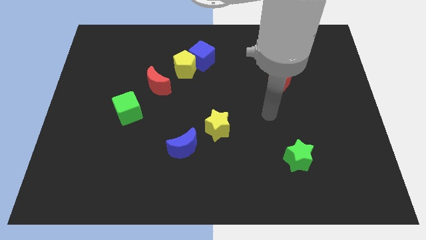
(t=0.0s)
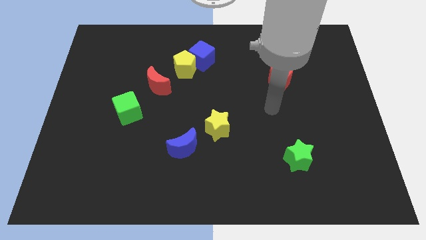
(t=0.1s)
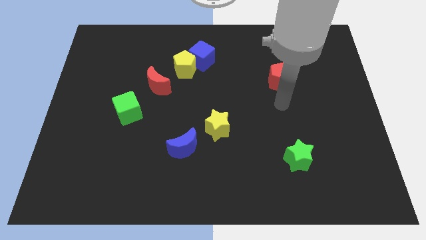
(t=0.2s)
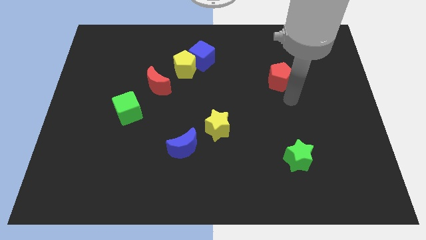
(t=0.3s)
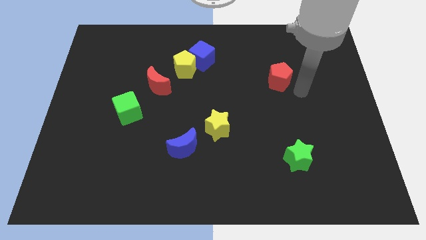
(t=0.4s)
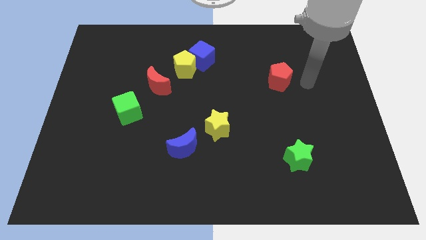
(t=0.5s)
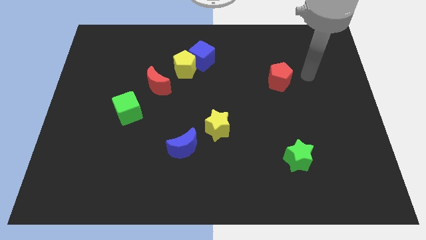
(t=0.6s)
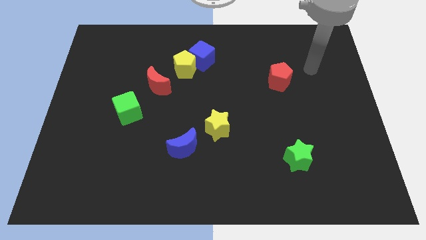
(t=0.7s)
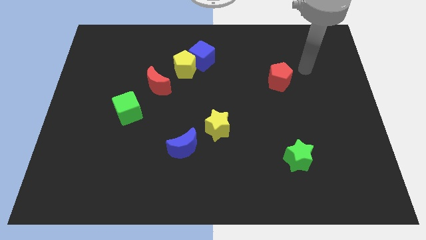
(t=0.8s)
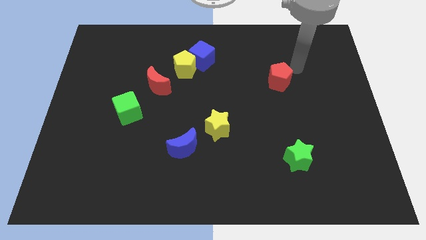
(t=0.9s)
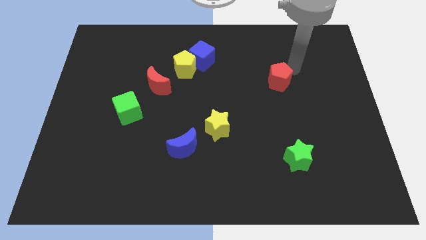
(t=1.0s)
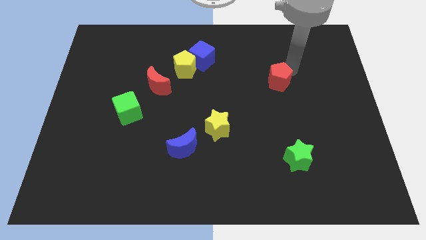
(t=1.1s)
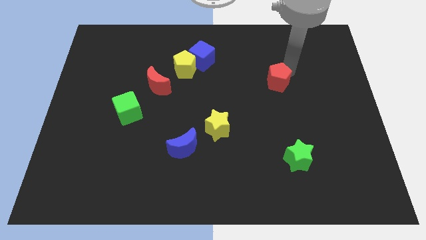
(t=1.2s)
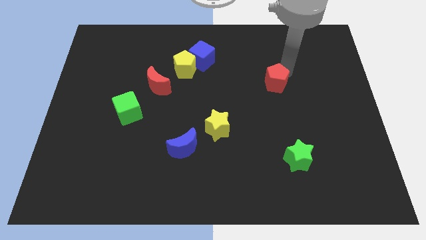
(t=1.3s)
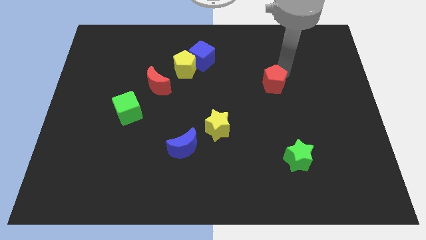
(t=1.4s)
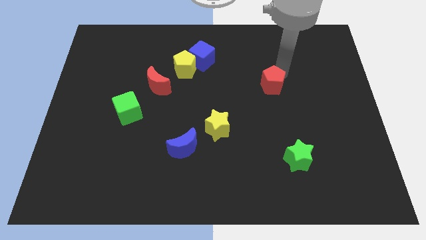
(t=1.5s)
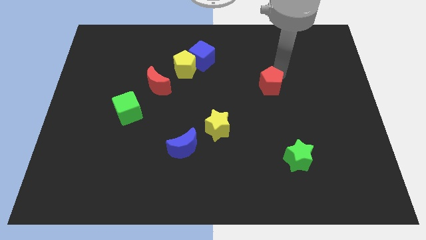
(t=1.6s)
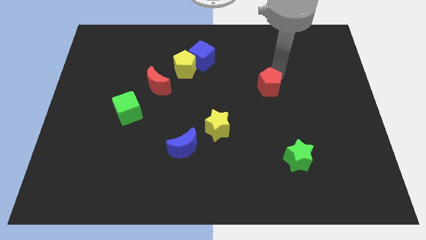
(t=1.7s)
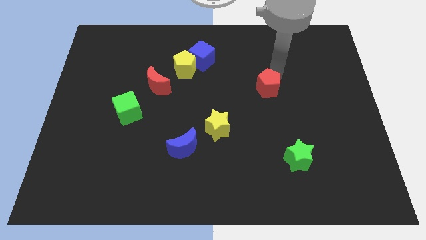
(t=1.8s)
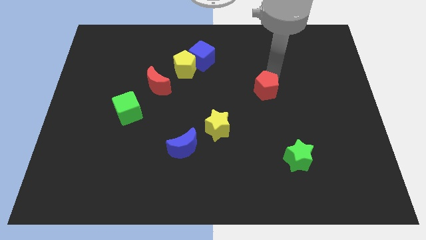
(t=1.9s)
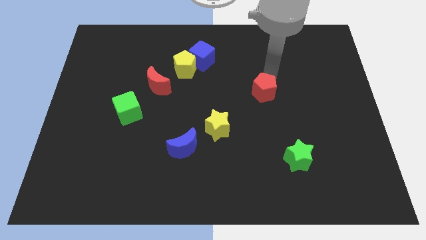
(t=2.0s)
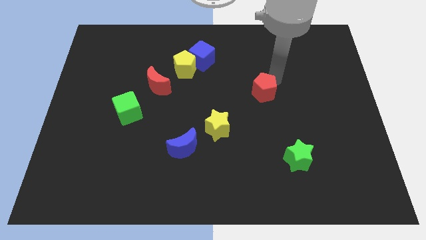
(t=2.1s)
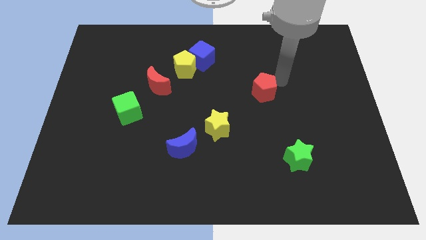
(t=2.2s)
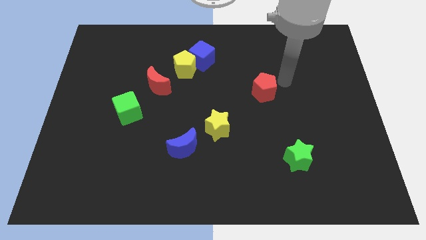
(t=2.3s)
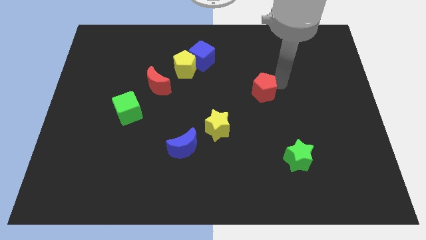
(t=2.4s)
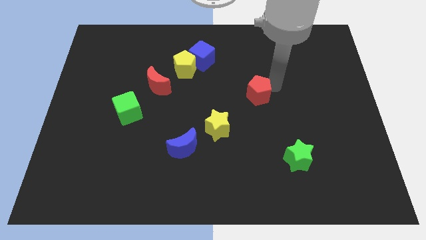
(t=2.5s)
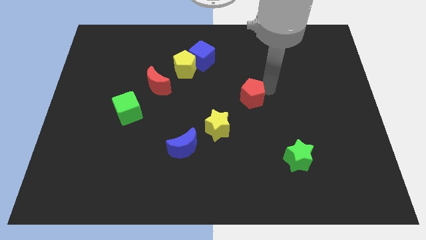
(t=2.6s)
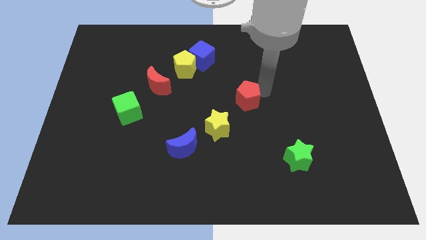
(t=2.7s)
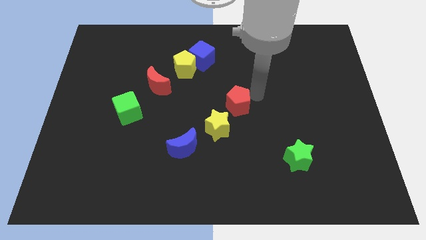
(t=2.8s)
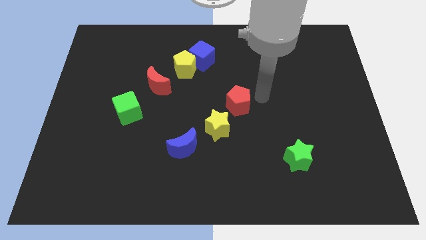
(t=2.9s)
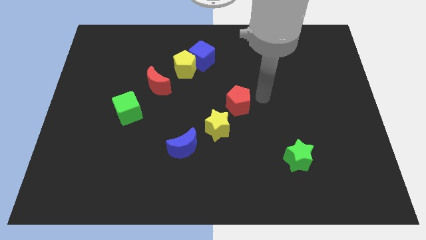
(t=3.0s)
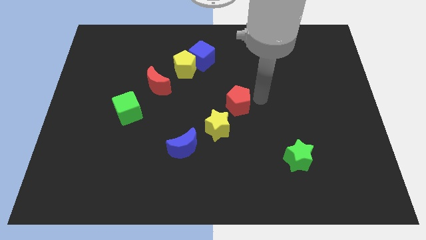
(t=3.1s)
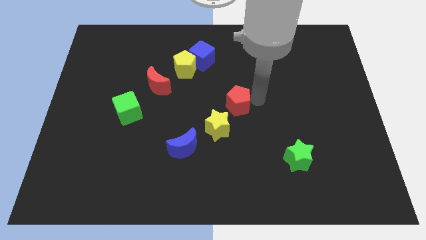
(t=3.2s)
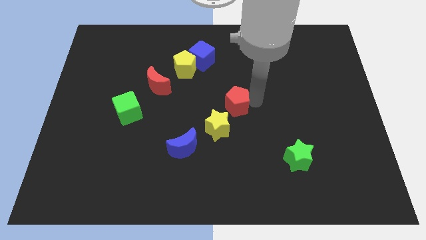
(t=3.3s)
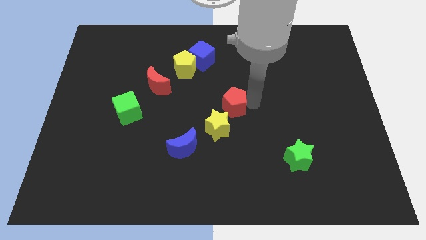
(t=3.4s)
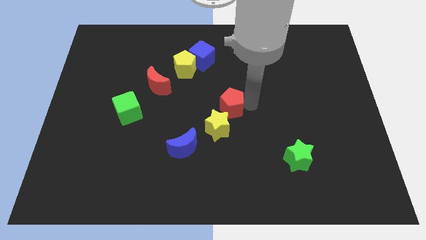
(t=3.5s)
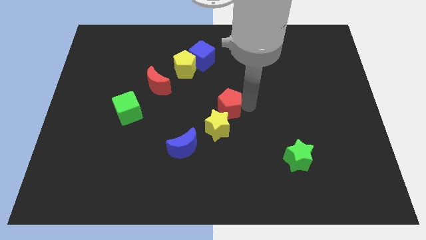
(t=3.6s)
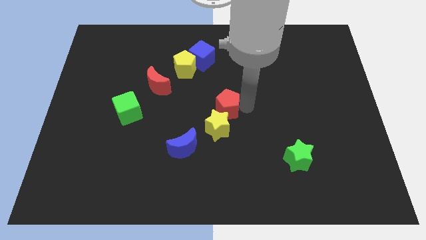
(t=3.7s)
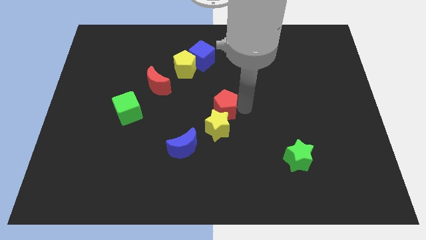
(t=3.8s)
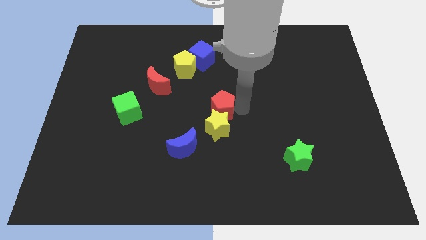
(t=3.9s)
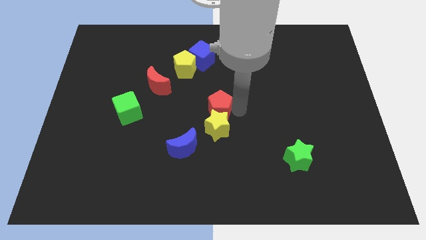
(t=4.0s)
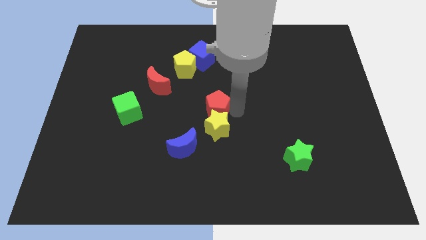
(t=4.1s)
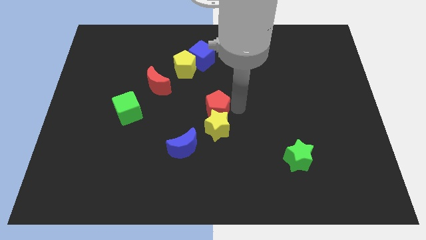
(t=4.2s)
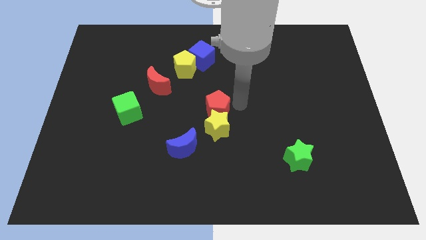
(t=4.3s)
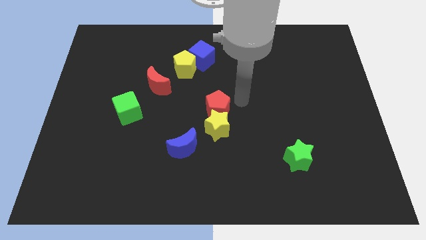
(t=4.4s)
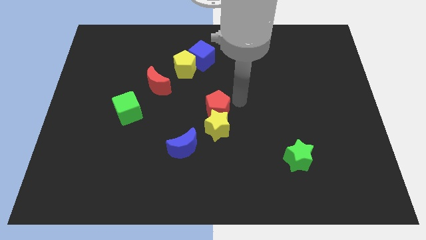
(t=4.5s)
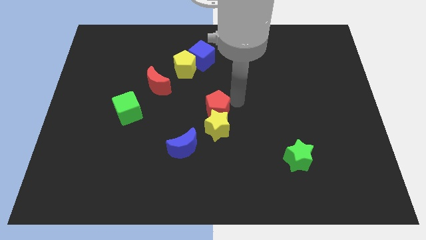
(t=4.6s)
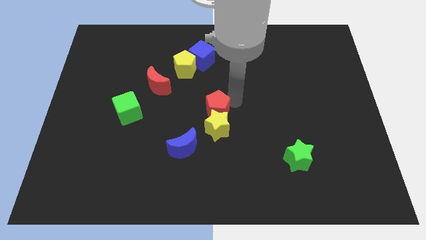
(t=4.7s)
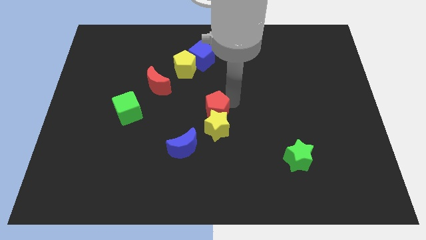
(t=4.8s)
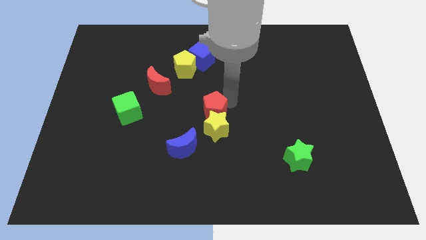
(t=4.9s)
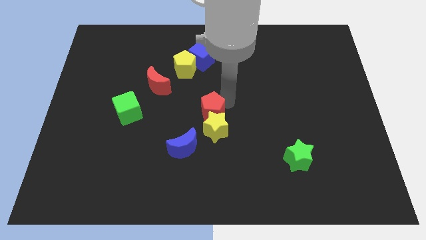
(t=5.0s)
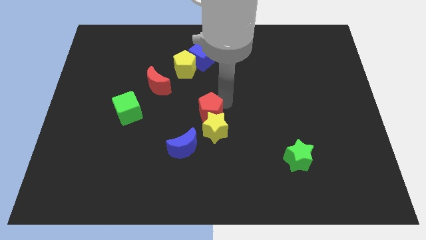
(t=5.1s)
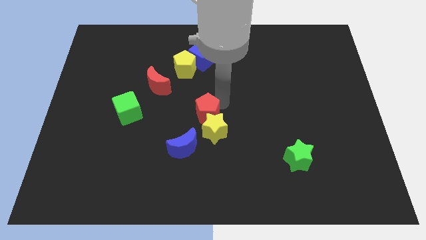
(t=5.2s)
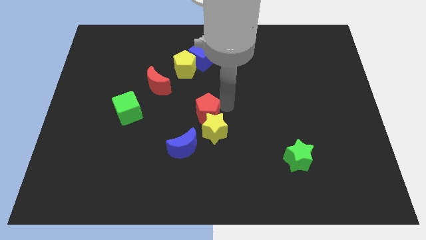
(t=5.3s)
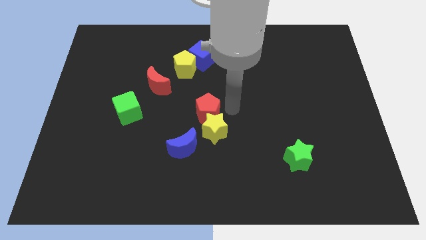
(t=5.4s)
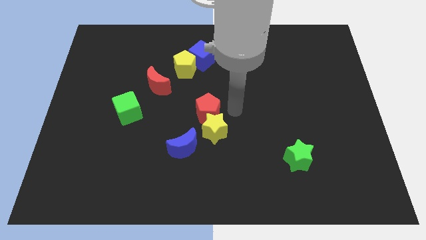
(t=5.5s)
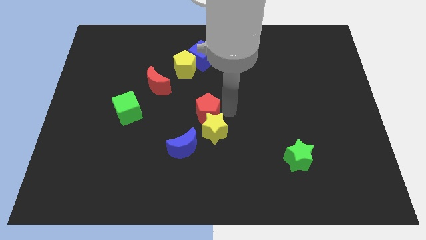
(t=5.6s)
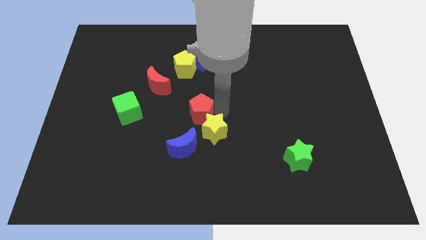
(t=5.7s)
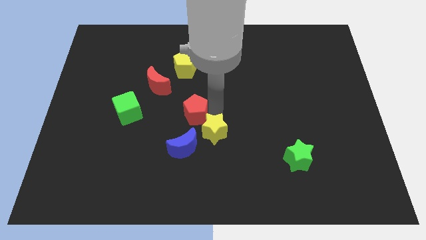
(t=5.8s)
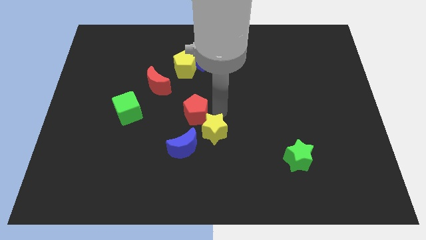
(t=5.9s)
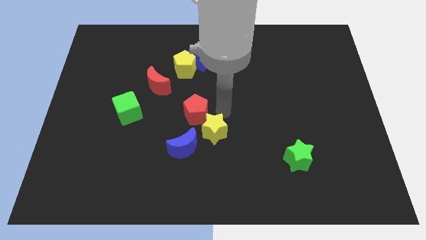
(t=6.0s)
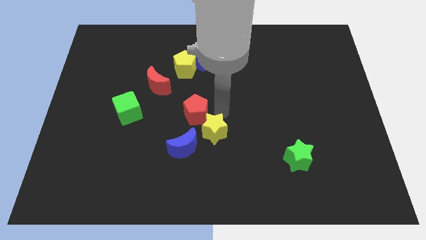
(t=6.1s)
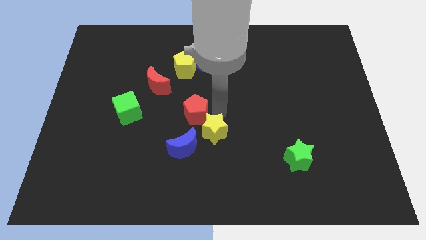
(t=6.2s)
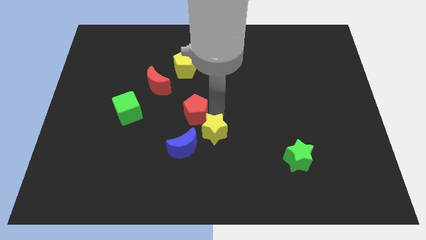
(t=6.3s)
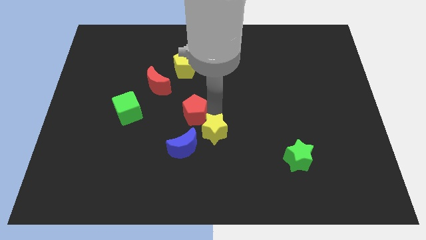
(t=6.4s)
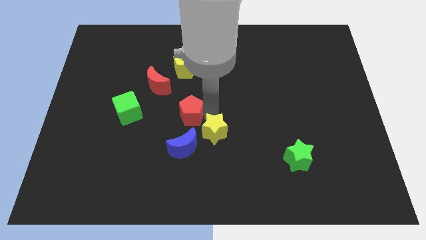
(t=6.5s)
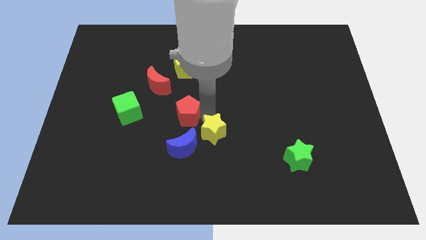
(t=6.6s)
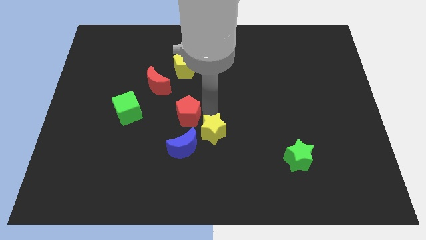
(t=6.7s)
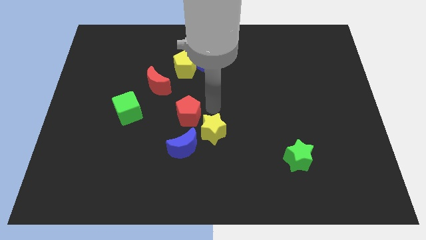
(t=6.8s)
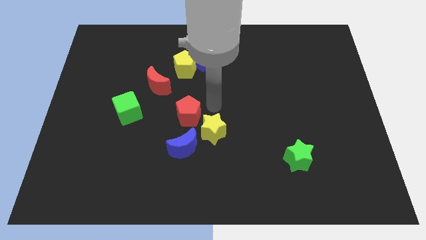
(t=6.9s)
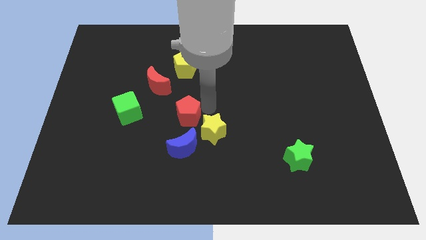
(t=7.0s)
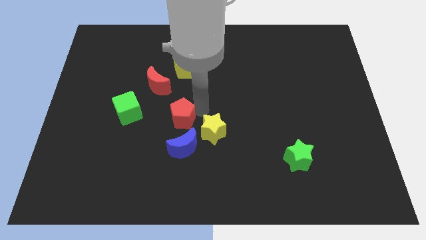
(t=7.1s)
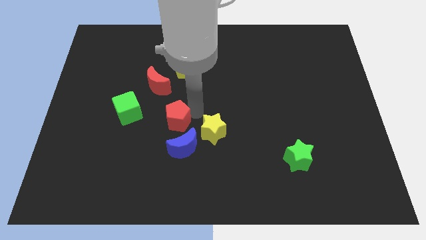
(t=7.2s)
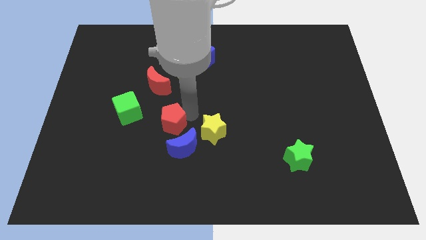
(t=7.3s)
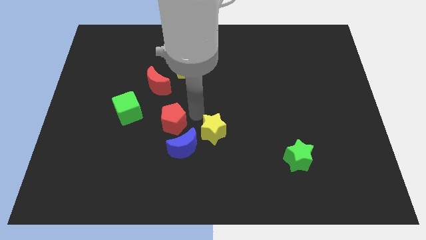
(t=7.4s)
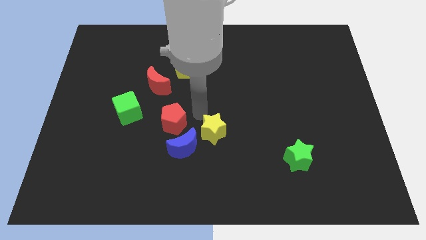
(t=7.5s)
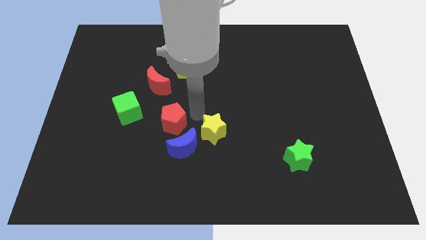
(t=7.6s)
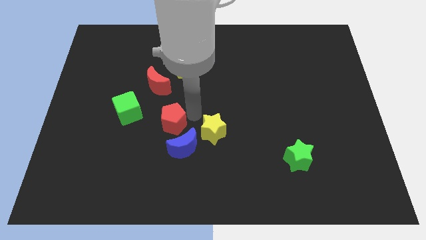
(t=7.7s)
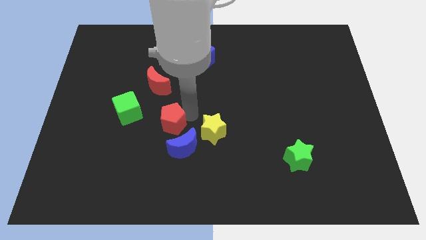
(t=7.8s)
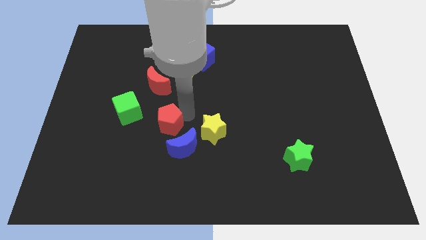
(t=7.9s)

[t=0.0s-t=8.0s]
push the red pentagon diagonally down and to the right of the green cube
